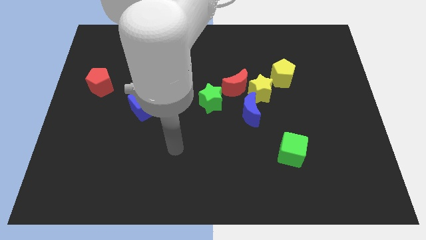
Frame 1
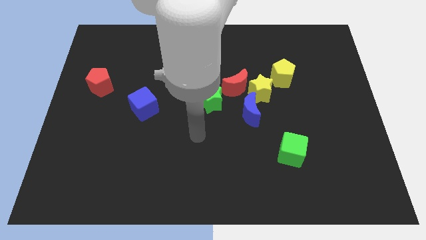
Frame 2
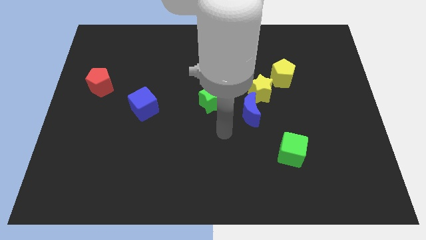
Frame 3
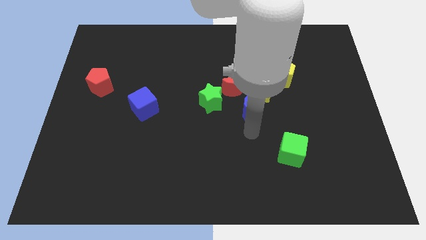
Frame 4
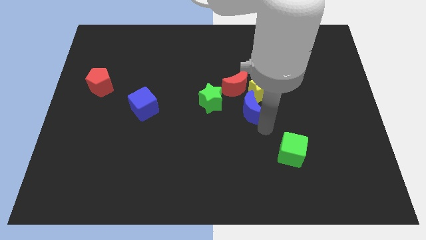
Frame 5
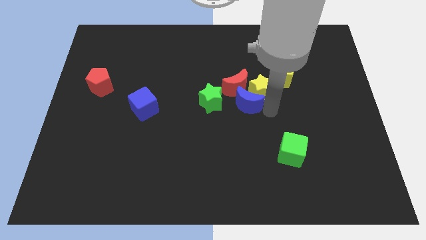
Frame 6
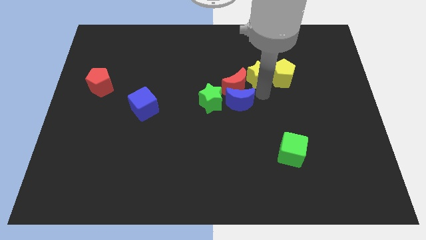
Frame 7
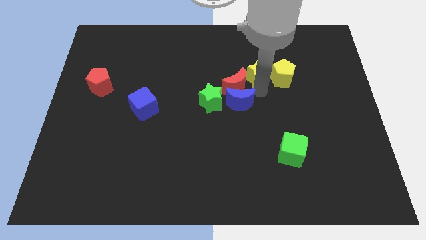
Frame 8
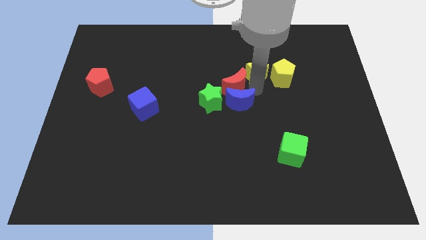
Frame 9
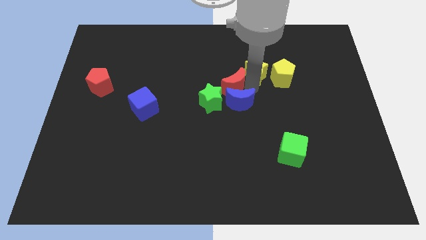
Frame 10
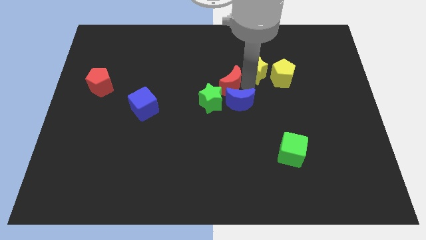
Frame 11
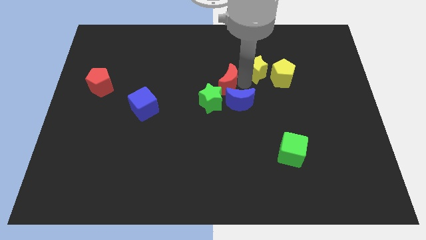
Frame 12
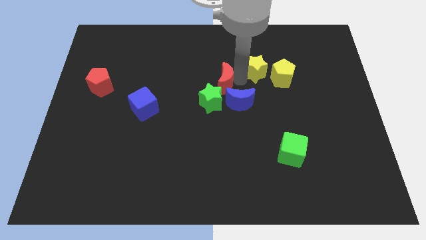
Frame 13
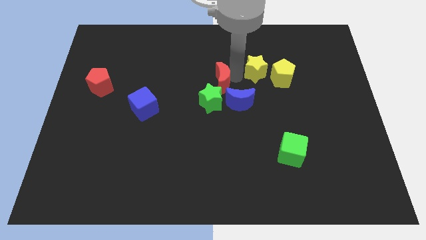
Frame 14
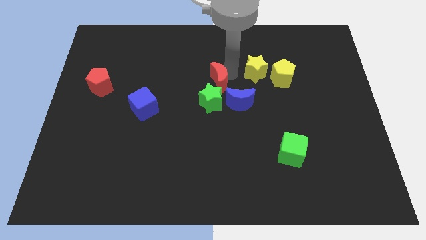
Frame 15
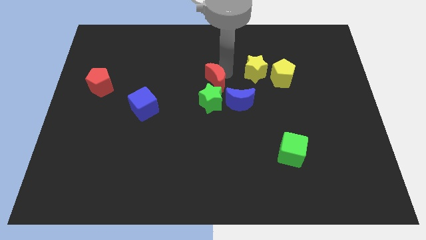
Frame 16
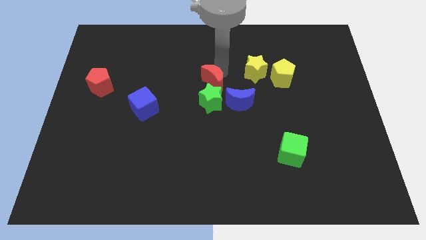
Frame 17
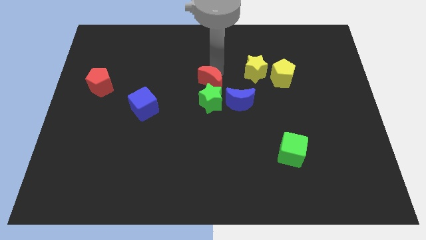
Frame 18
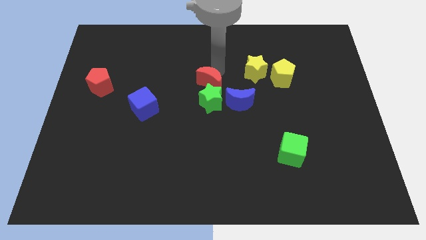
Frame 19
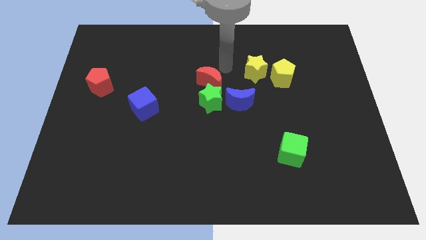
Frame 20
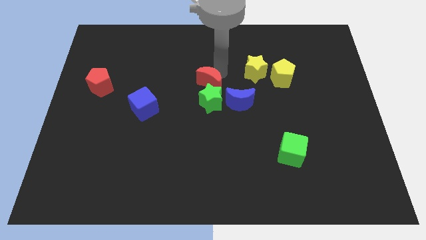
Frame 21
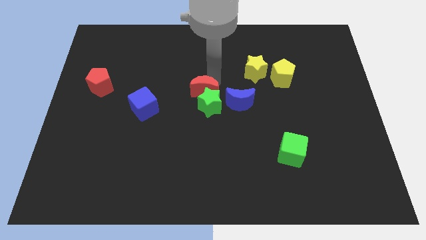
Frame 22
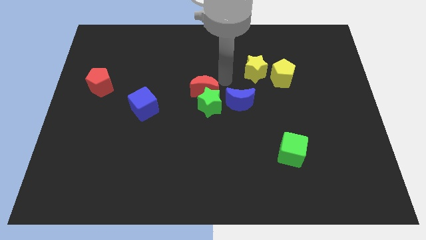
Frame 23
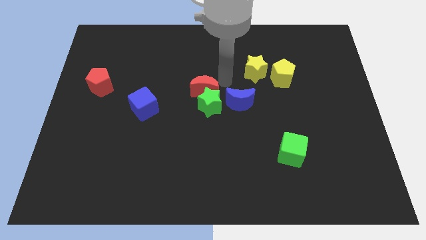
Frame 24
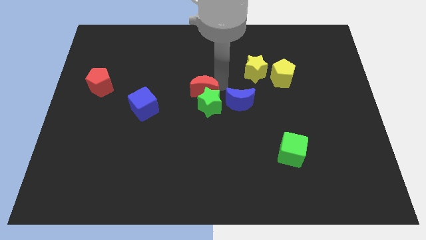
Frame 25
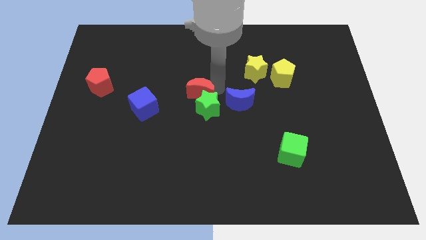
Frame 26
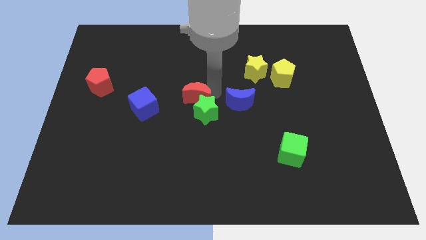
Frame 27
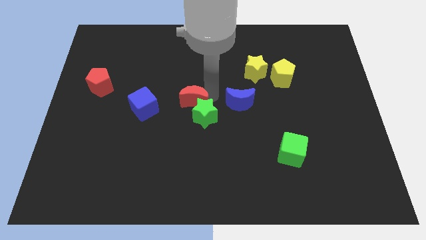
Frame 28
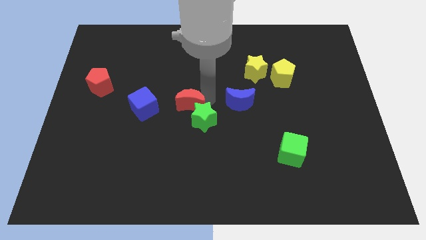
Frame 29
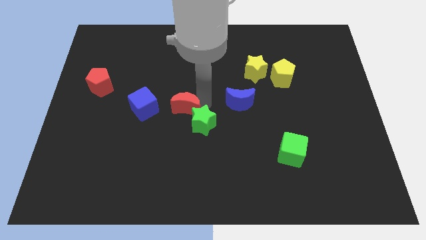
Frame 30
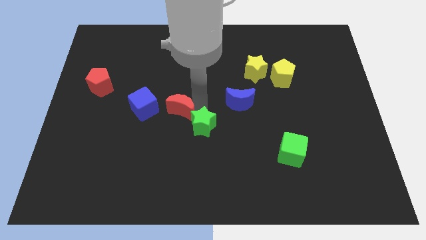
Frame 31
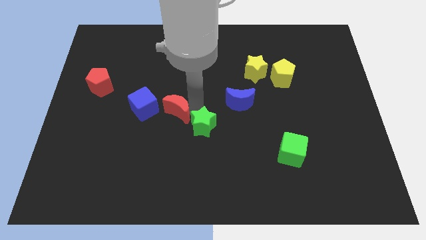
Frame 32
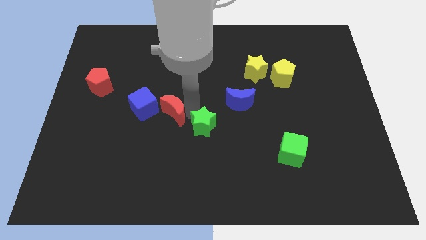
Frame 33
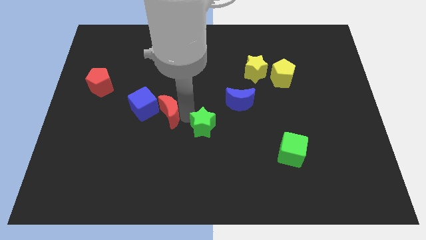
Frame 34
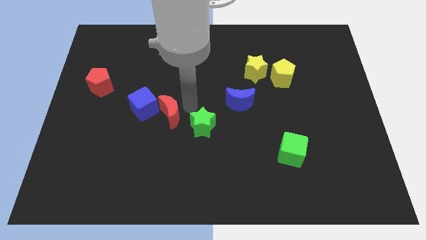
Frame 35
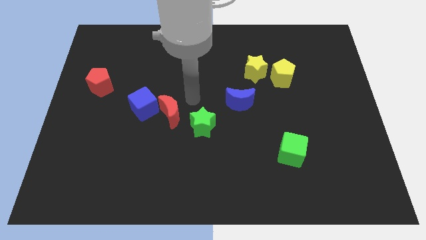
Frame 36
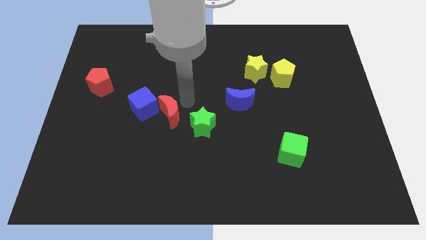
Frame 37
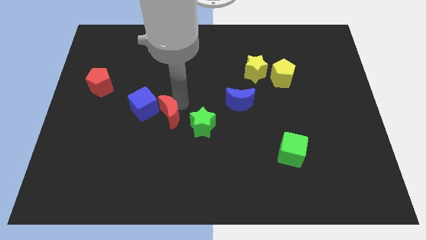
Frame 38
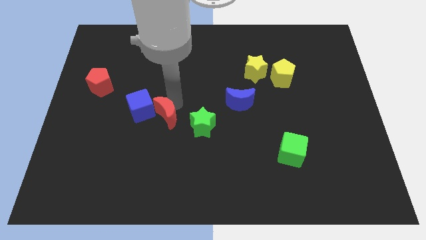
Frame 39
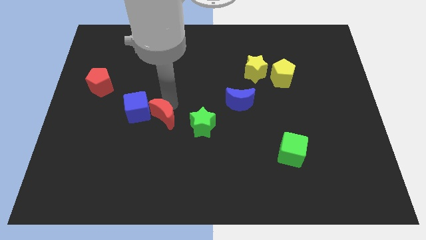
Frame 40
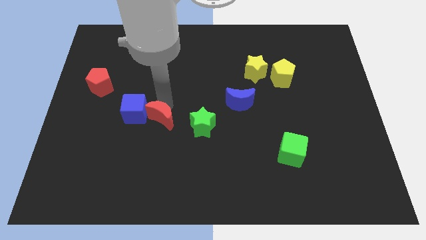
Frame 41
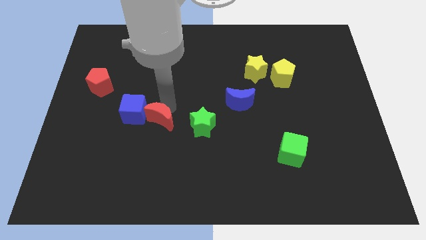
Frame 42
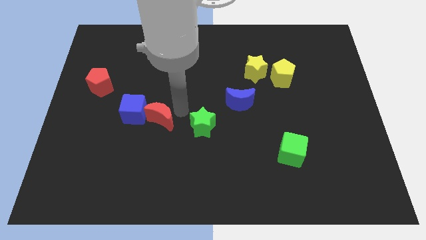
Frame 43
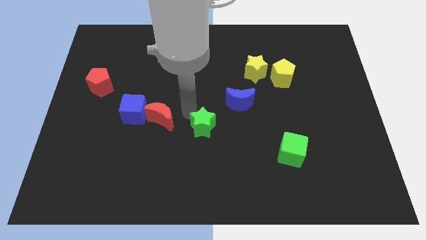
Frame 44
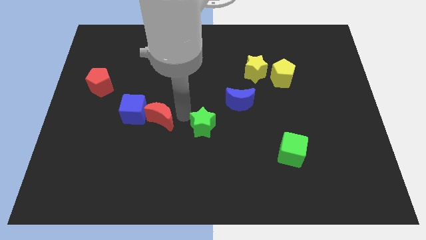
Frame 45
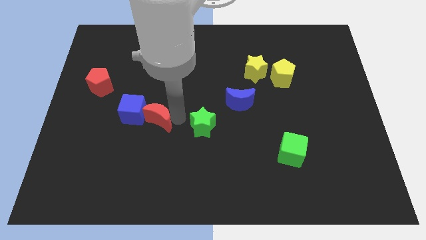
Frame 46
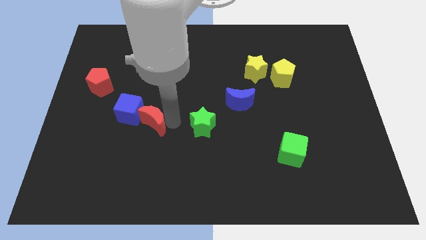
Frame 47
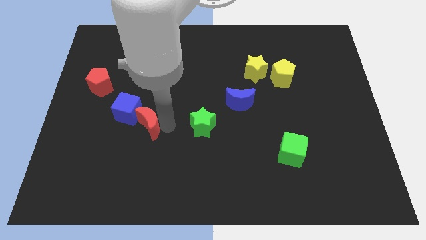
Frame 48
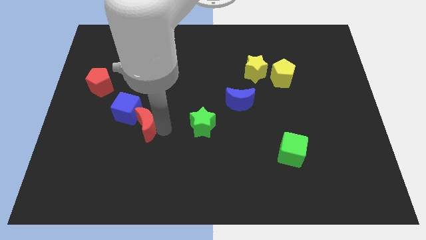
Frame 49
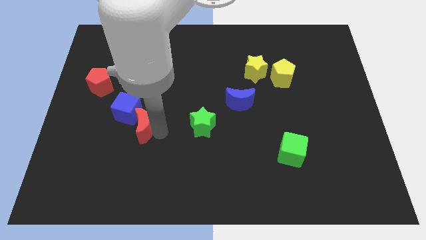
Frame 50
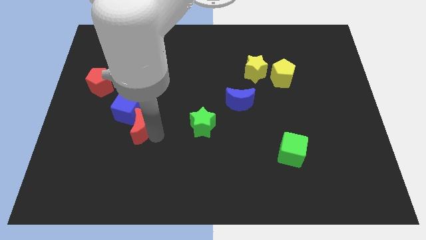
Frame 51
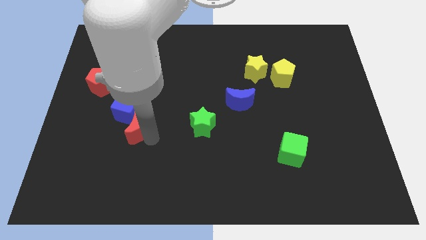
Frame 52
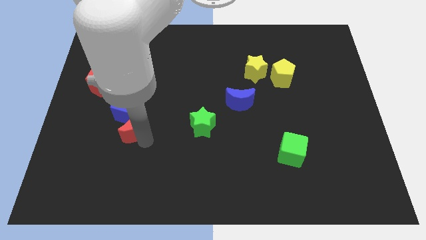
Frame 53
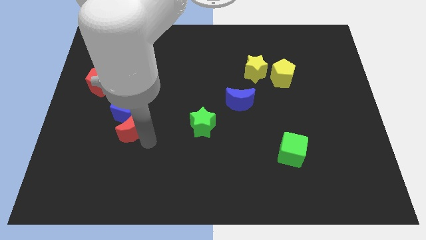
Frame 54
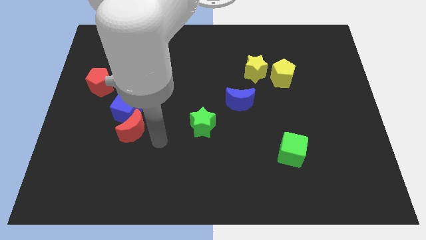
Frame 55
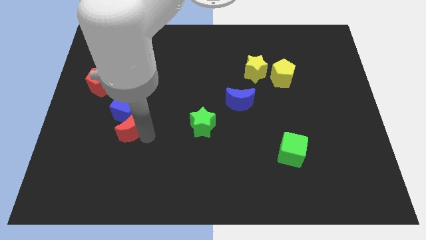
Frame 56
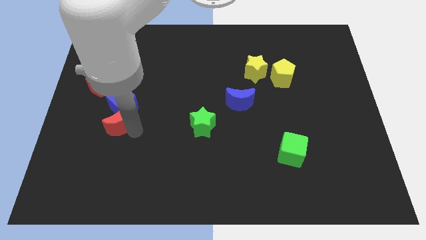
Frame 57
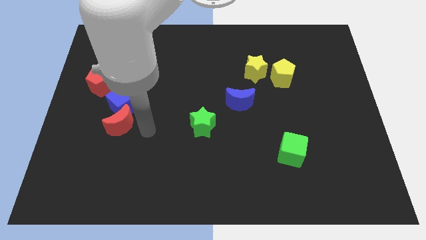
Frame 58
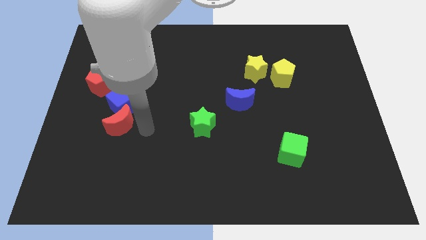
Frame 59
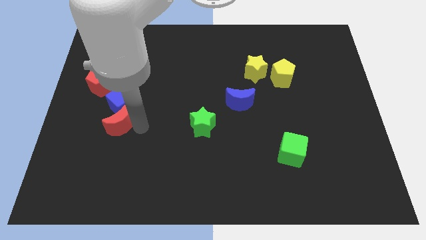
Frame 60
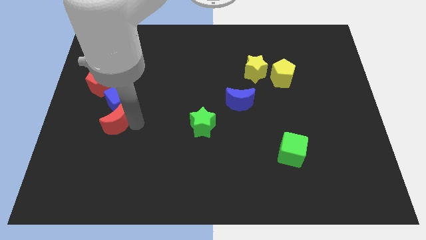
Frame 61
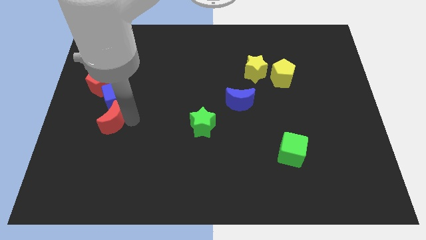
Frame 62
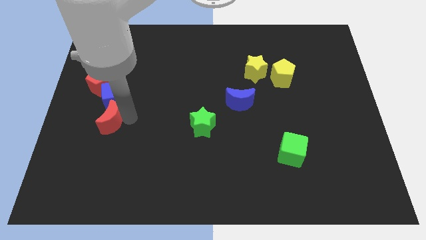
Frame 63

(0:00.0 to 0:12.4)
put the red moon to the bottom side of the red pentagon

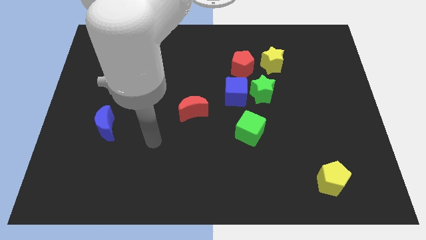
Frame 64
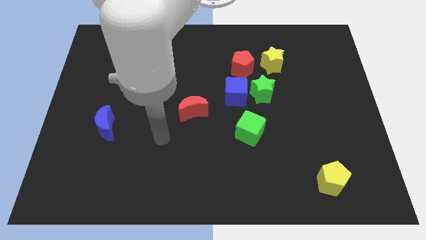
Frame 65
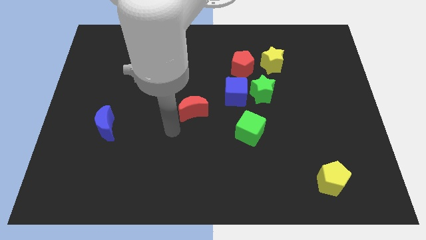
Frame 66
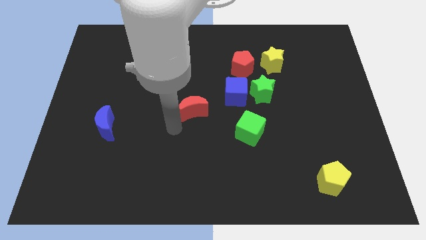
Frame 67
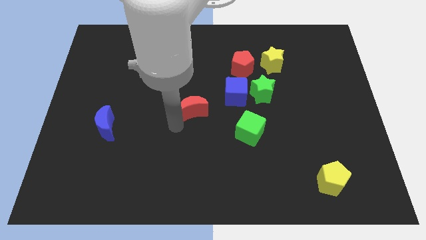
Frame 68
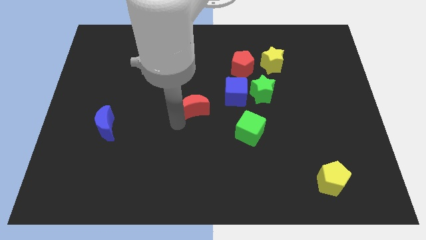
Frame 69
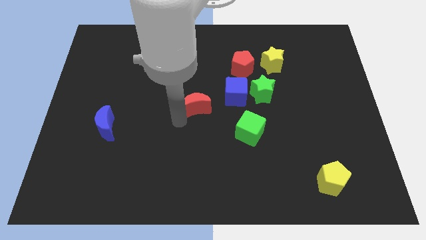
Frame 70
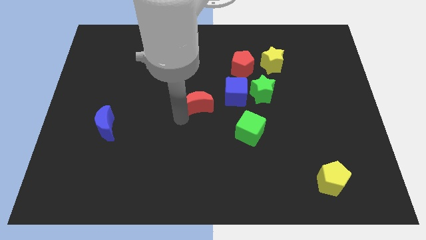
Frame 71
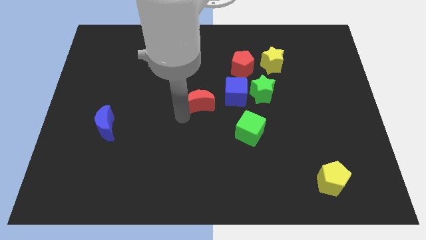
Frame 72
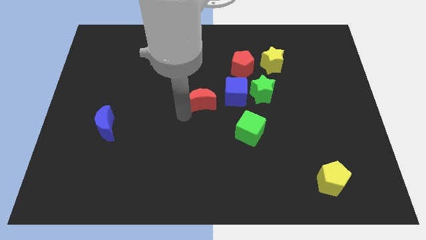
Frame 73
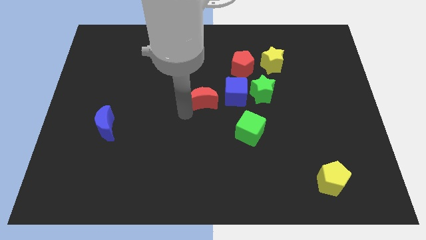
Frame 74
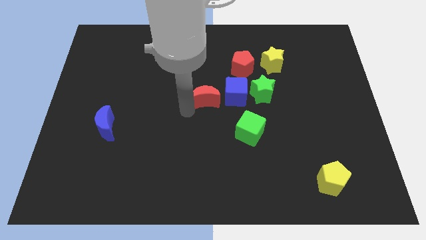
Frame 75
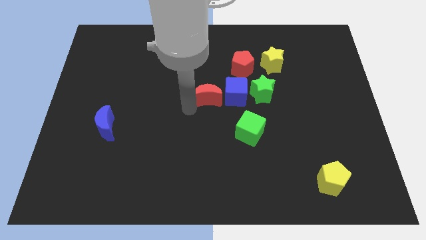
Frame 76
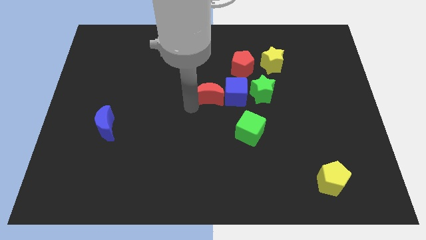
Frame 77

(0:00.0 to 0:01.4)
push the red moon to the bottom left side of the red pentagon
